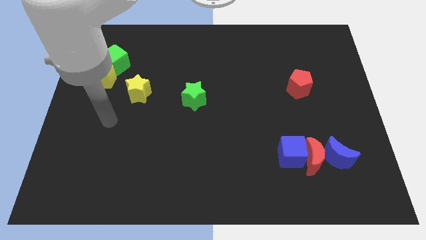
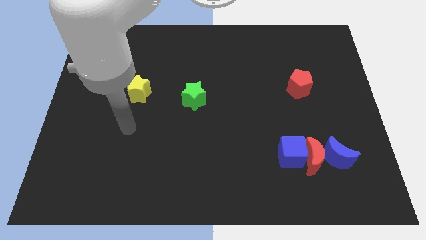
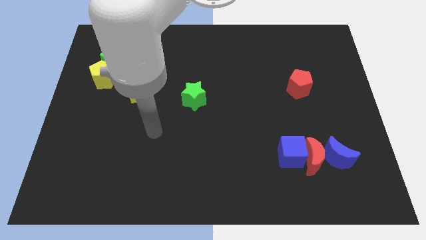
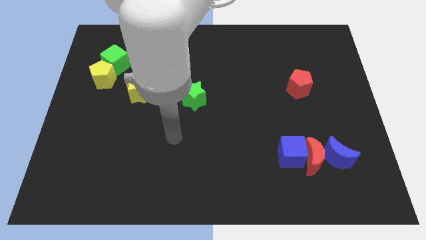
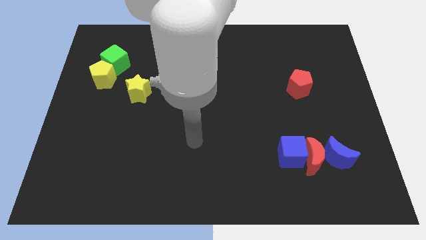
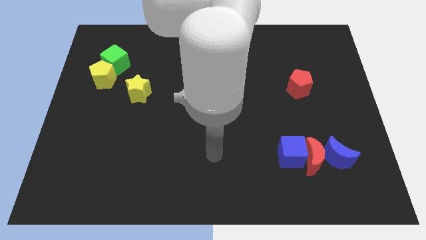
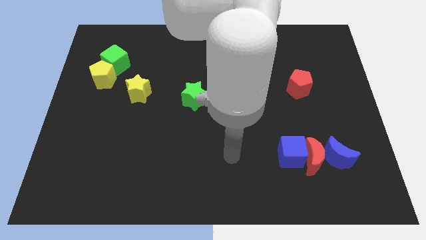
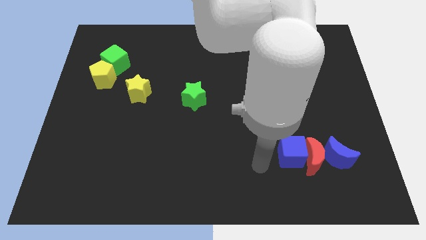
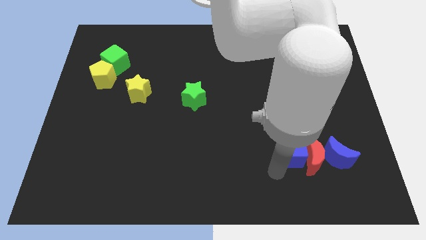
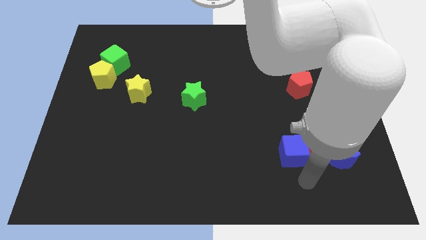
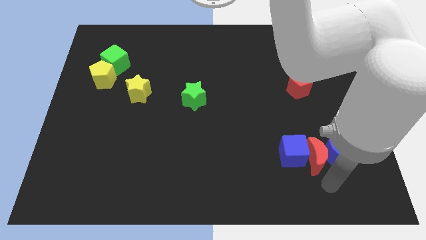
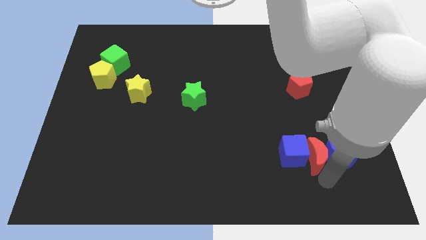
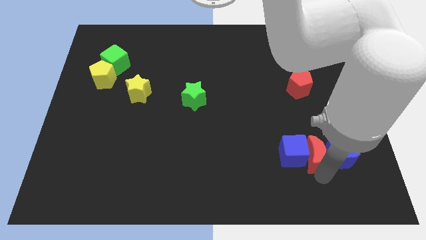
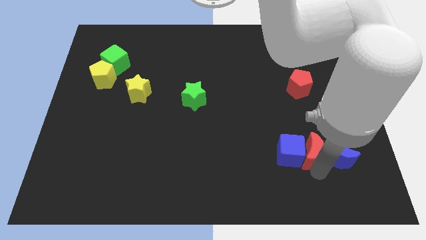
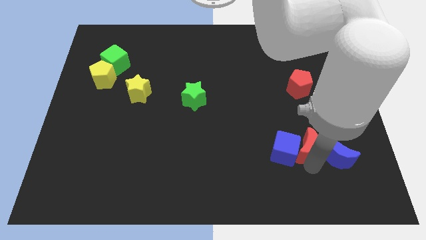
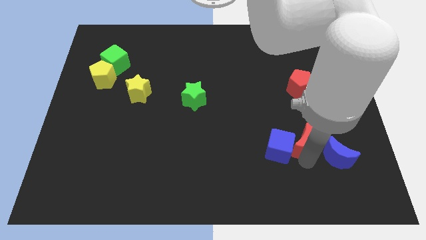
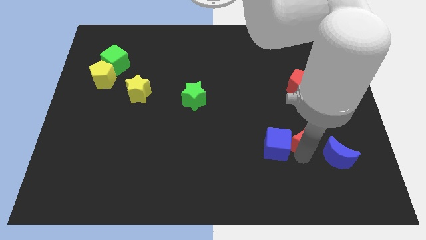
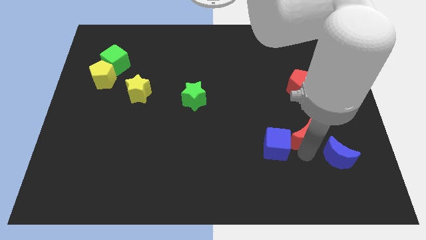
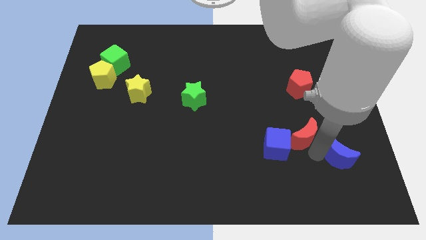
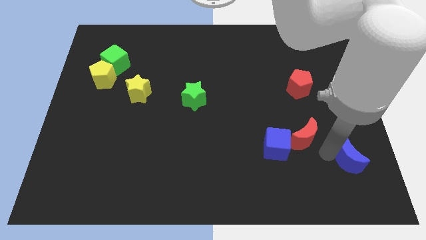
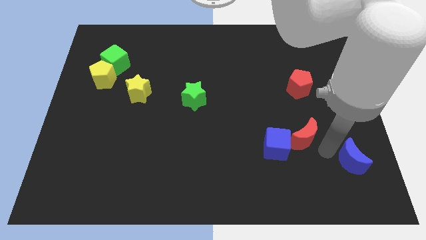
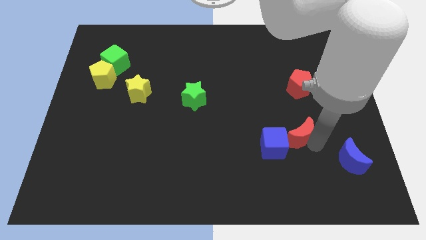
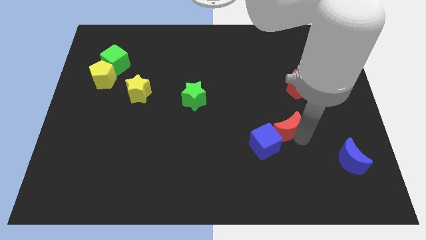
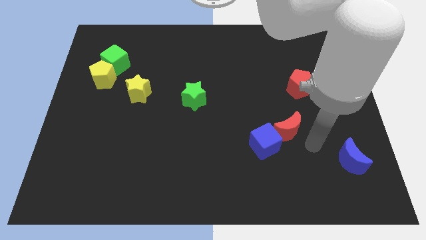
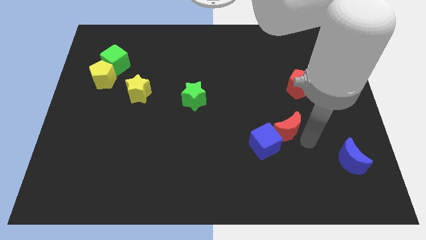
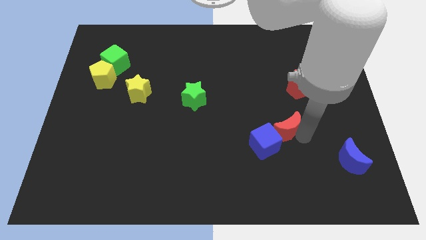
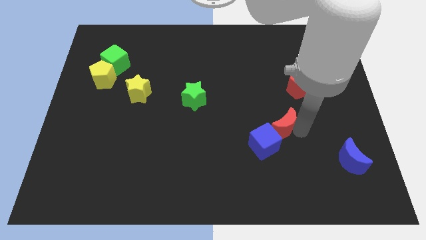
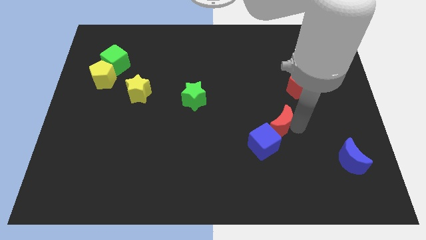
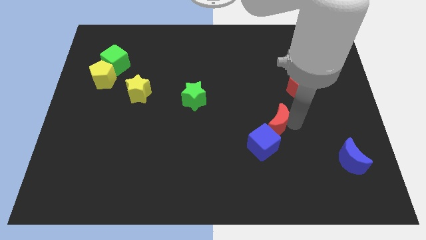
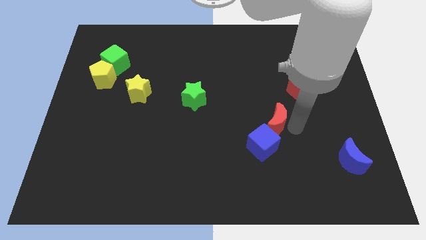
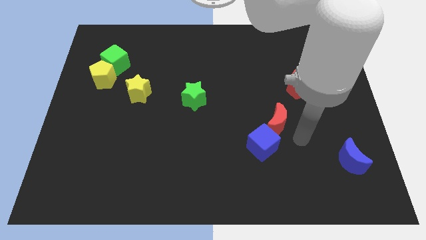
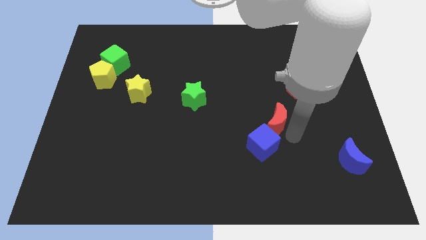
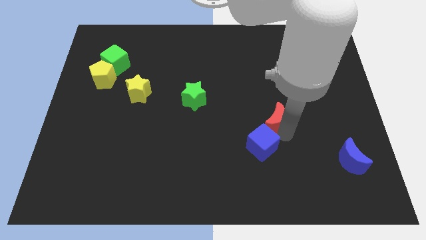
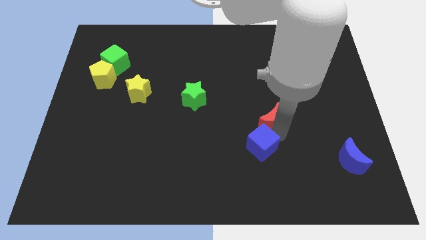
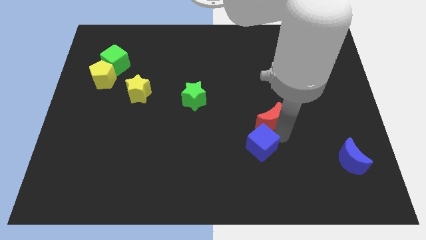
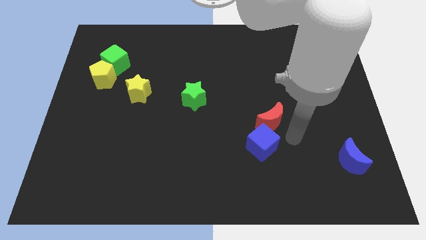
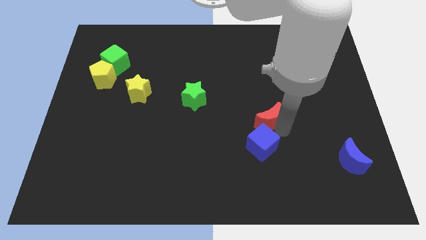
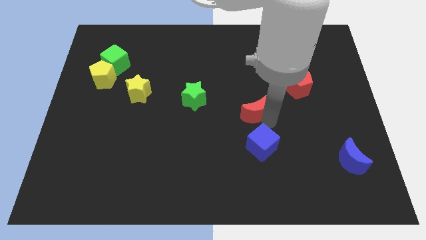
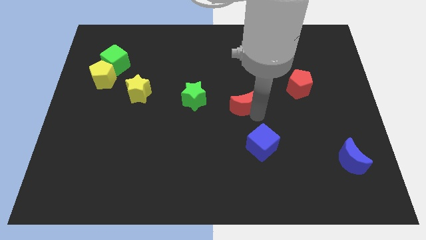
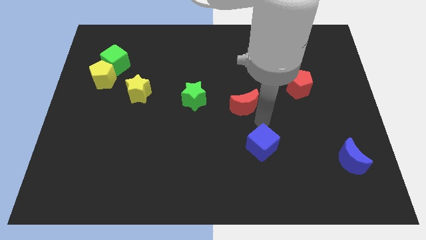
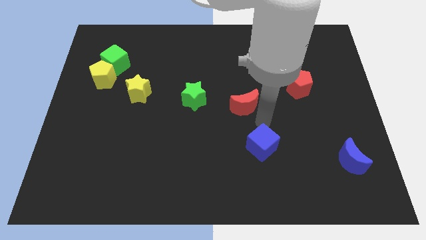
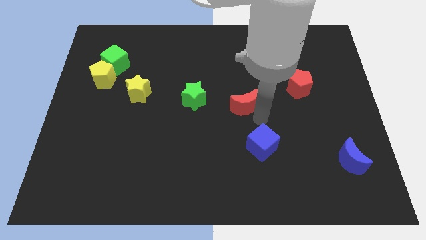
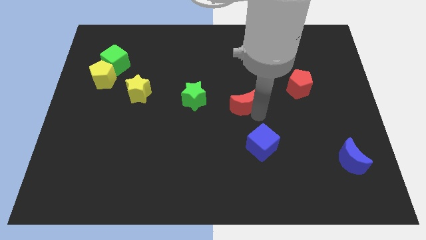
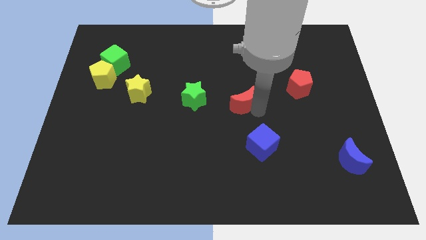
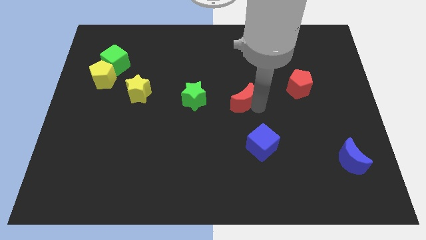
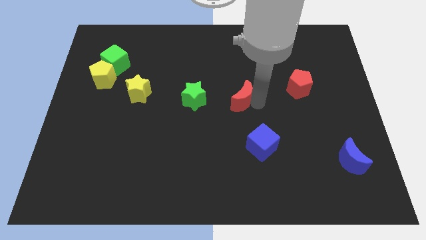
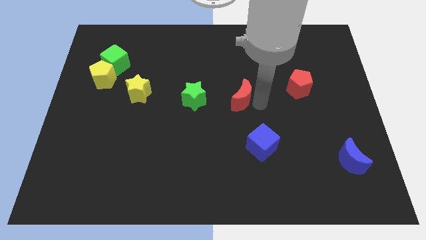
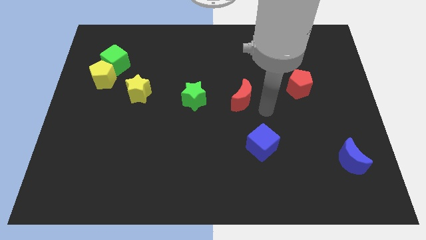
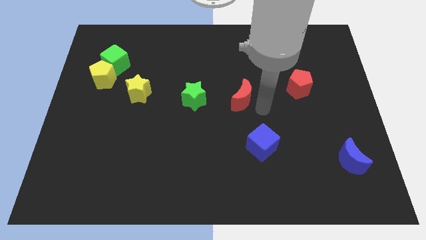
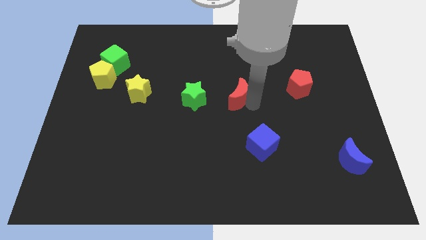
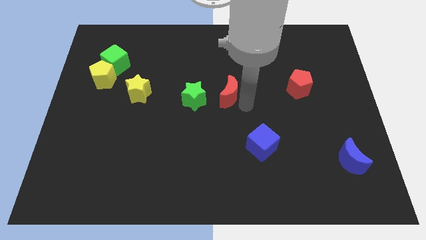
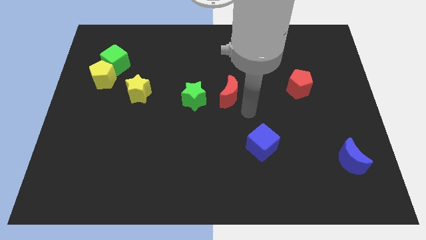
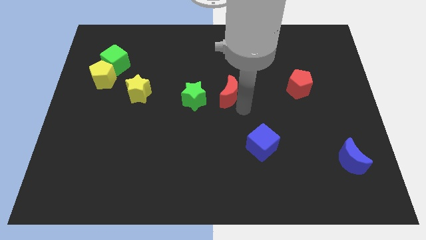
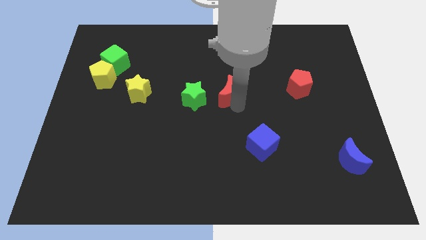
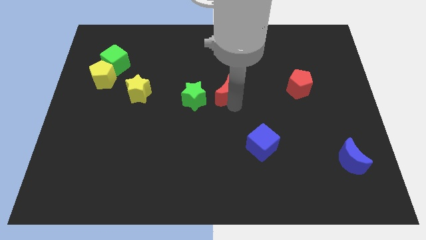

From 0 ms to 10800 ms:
slide the red moon diagonally up and to the right of the green star

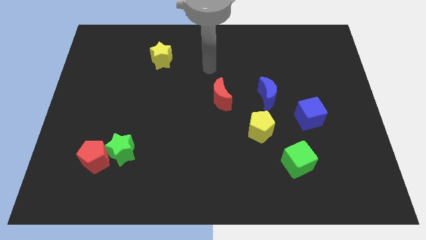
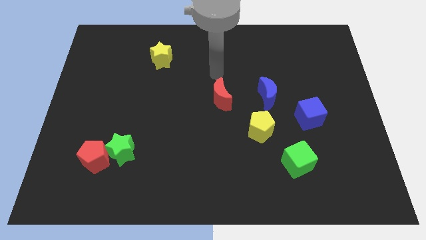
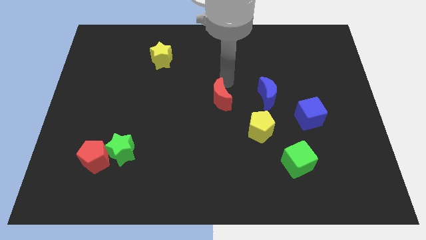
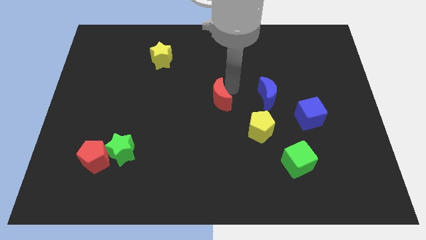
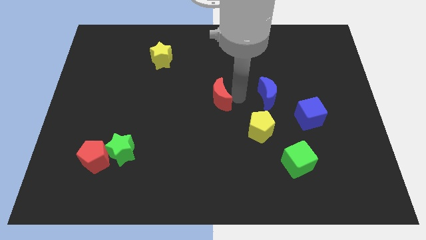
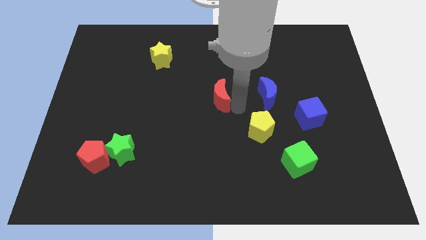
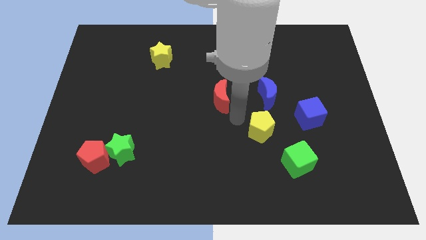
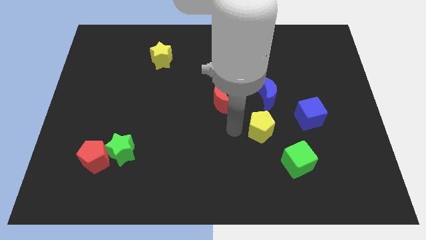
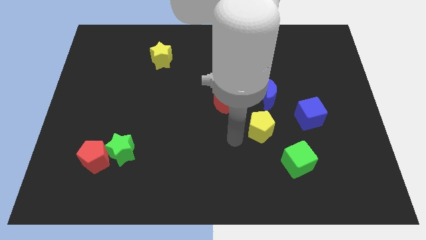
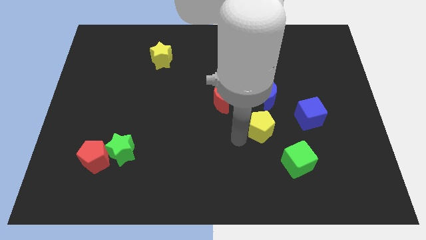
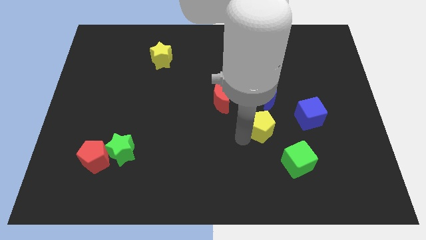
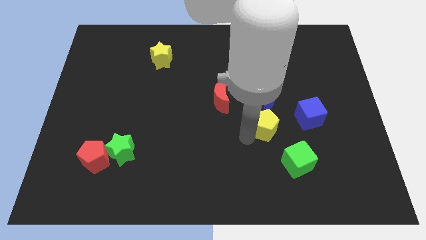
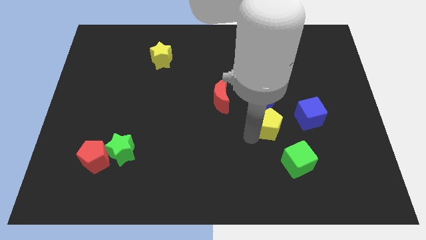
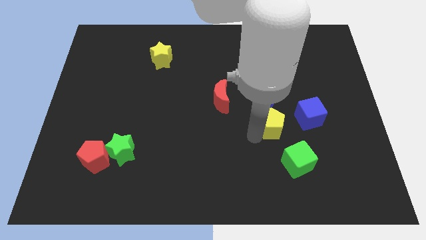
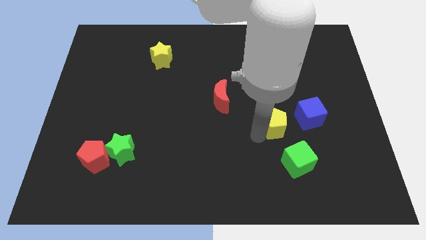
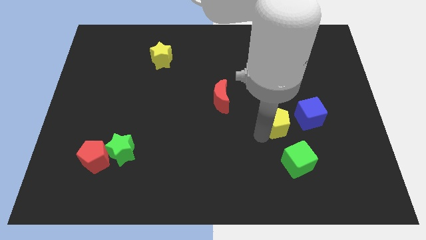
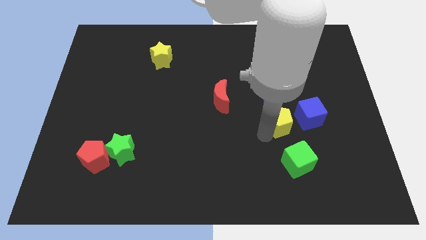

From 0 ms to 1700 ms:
move the yellow pentagon diagonally down and to the right of the blue moon
